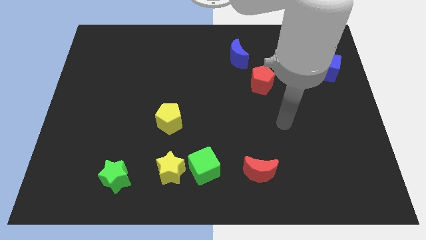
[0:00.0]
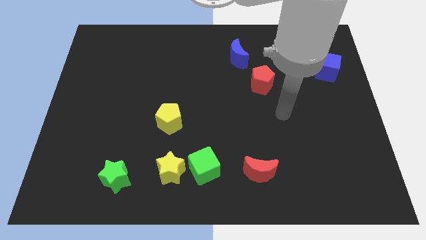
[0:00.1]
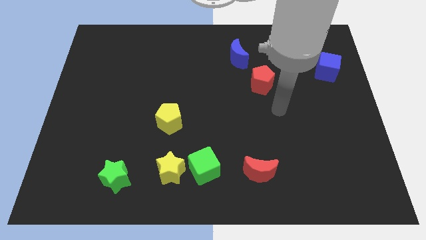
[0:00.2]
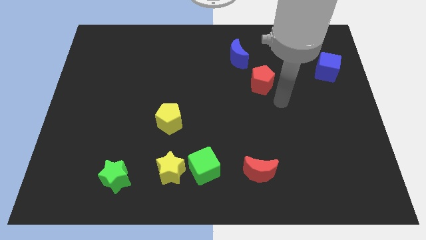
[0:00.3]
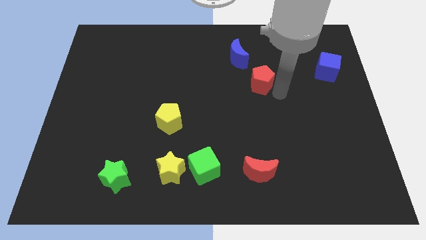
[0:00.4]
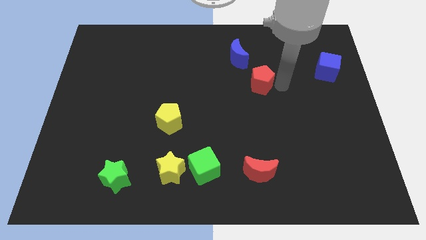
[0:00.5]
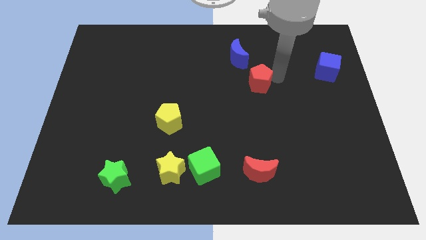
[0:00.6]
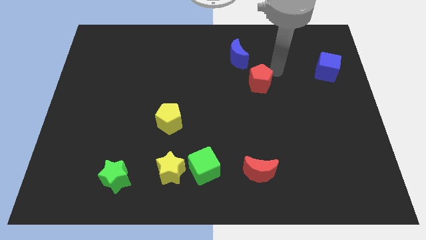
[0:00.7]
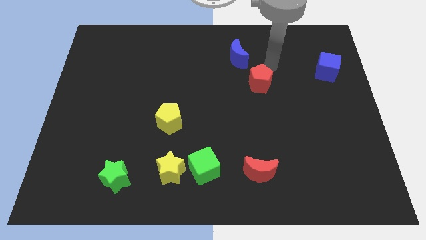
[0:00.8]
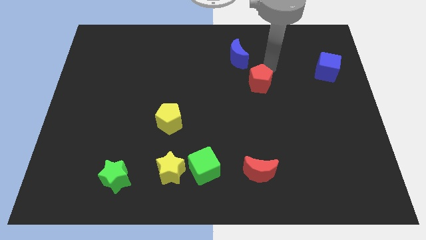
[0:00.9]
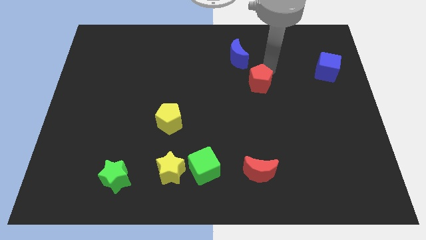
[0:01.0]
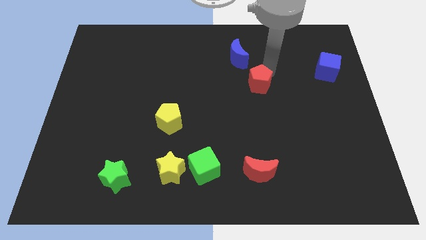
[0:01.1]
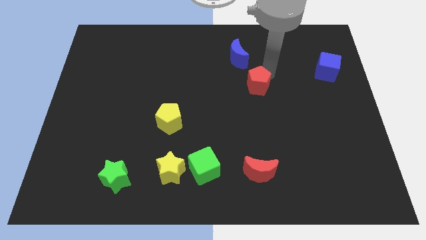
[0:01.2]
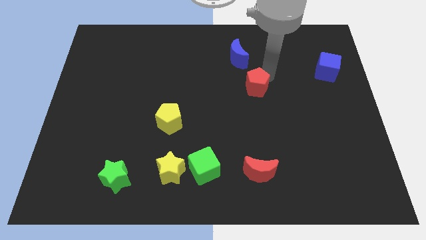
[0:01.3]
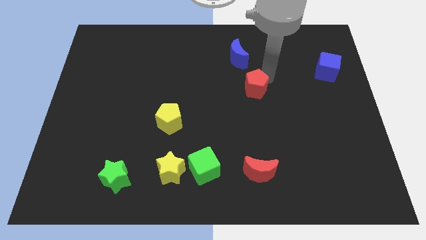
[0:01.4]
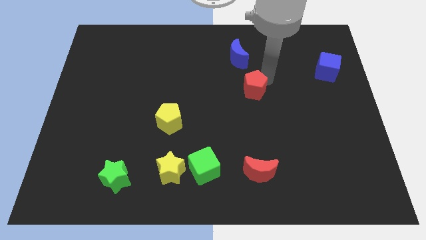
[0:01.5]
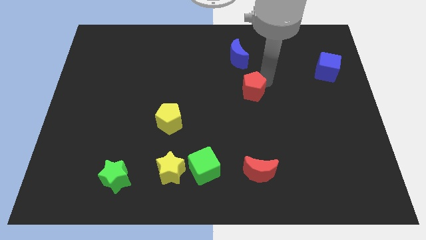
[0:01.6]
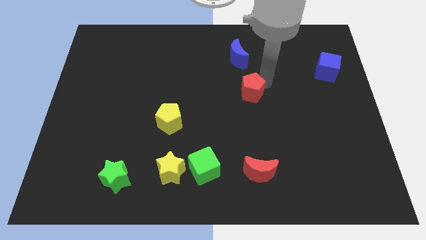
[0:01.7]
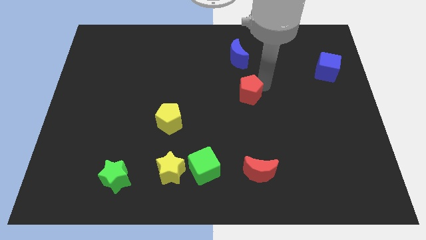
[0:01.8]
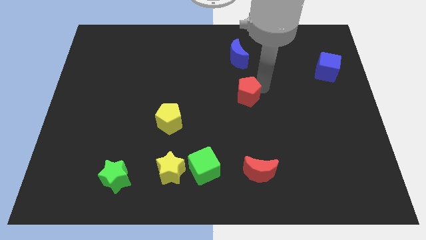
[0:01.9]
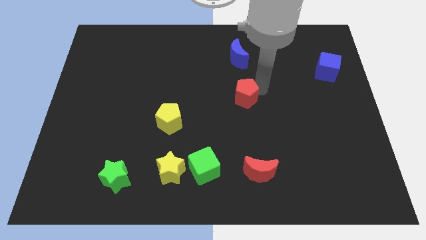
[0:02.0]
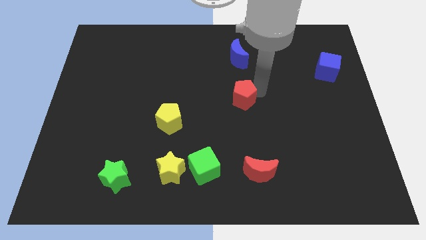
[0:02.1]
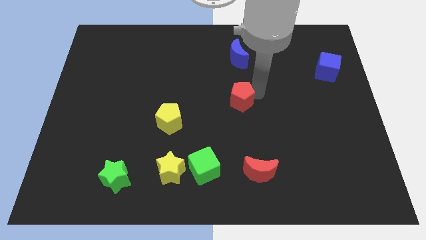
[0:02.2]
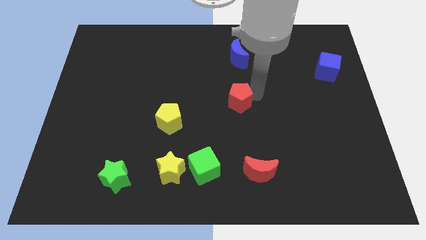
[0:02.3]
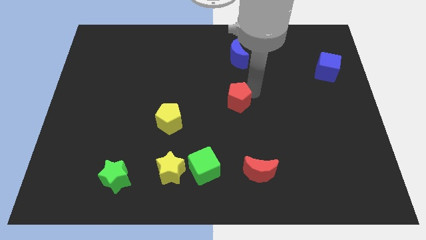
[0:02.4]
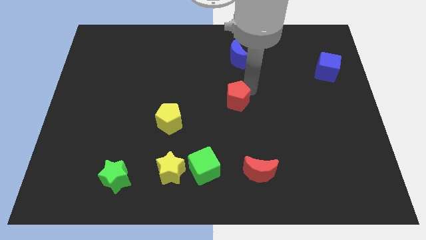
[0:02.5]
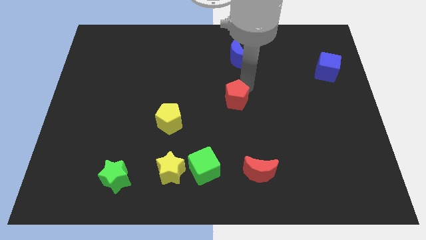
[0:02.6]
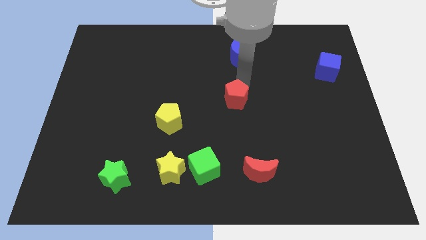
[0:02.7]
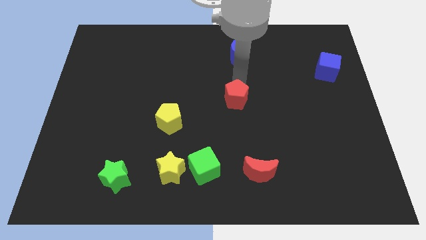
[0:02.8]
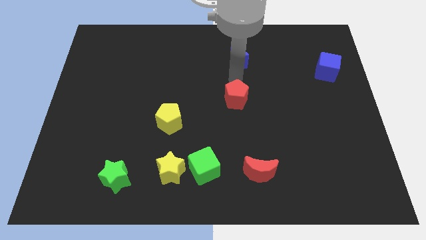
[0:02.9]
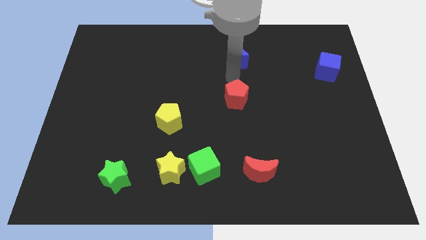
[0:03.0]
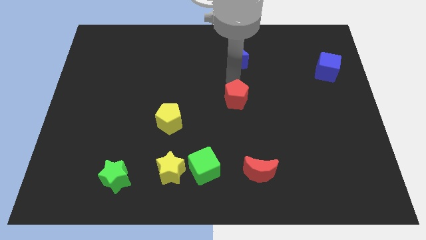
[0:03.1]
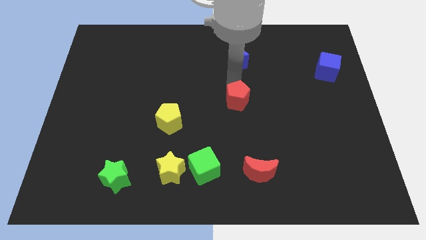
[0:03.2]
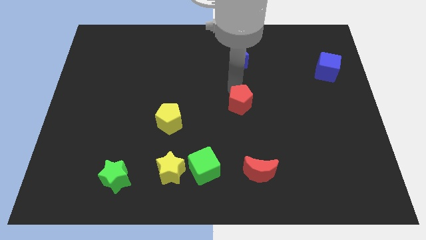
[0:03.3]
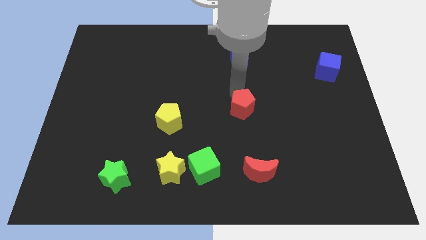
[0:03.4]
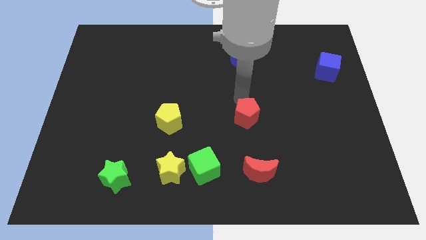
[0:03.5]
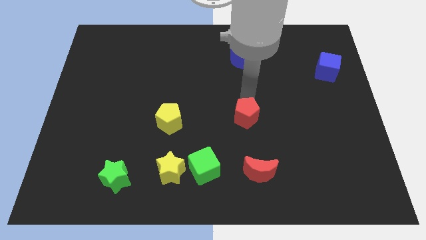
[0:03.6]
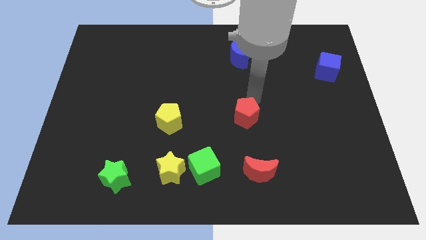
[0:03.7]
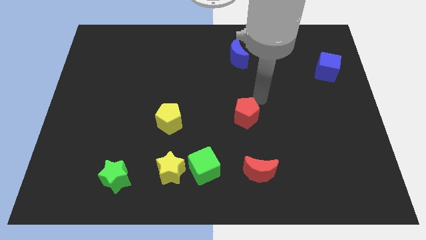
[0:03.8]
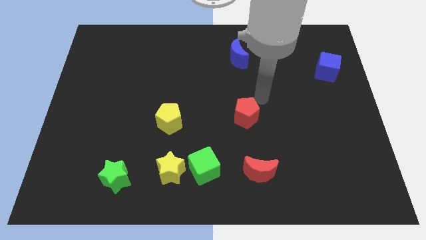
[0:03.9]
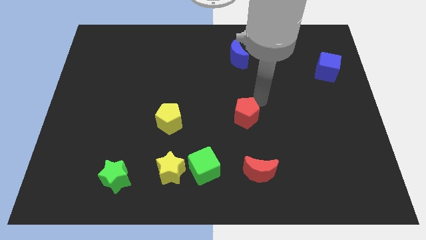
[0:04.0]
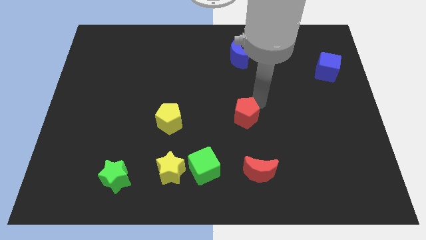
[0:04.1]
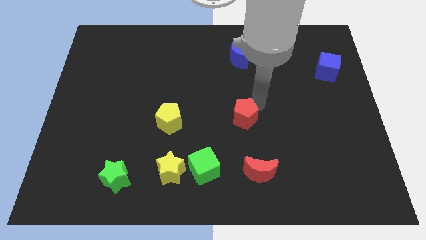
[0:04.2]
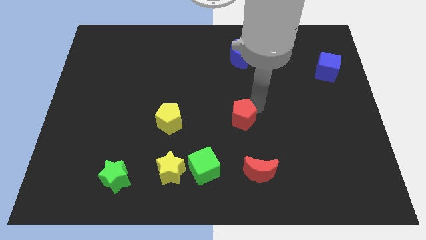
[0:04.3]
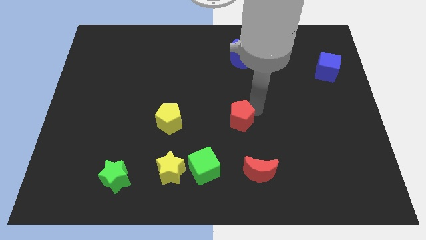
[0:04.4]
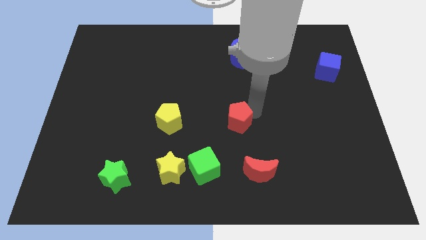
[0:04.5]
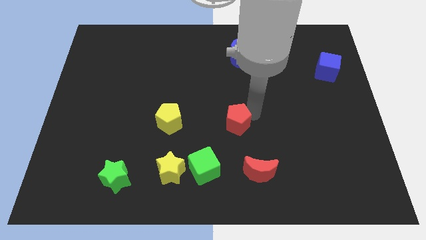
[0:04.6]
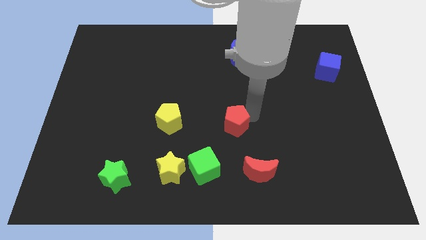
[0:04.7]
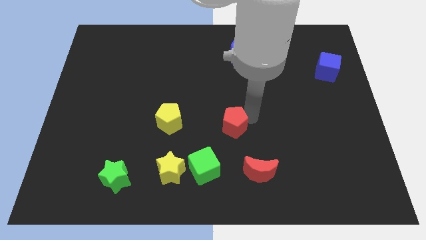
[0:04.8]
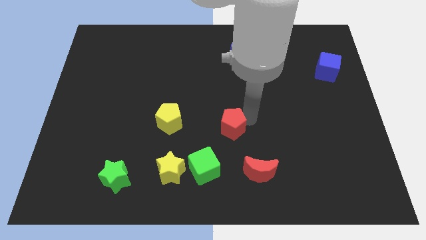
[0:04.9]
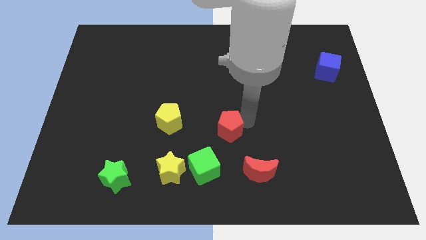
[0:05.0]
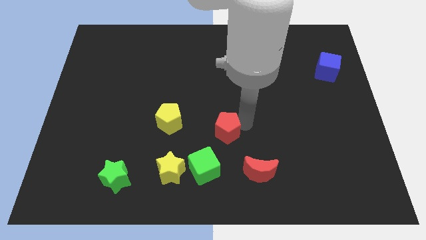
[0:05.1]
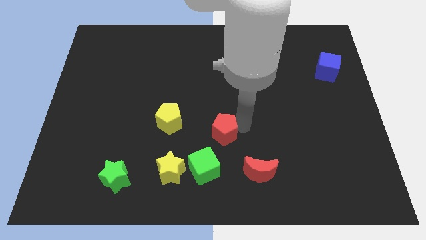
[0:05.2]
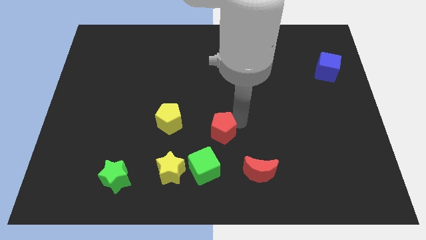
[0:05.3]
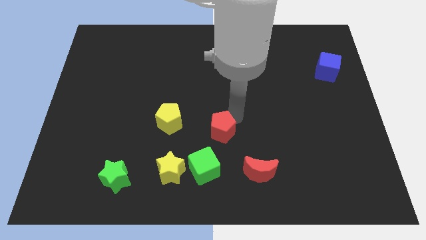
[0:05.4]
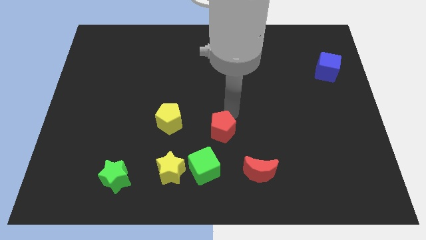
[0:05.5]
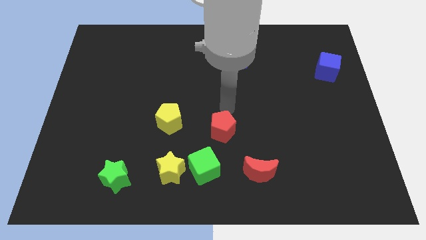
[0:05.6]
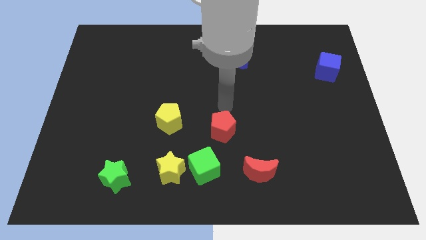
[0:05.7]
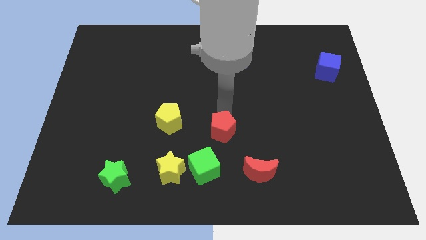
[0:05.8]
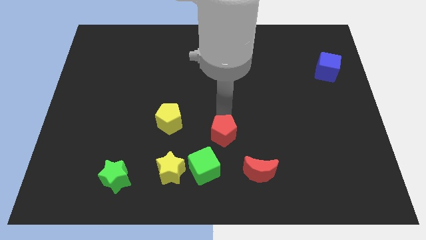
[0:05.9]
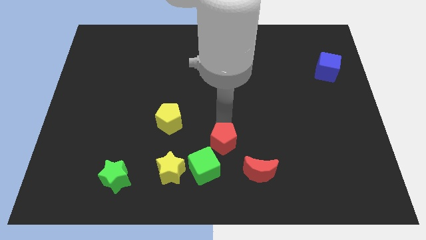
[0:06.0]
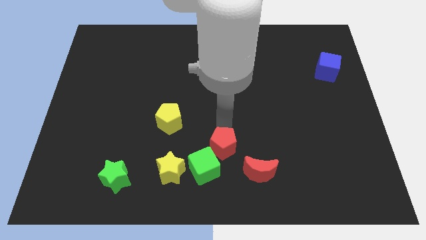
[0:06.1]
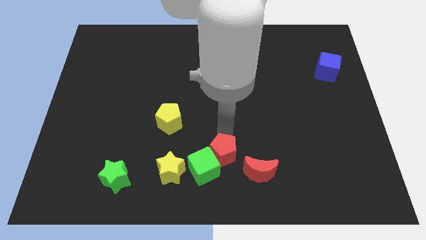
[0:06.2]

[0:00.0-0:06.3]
slide the red pentagon next to the green cube
